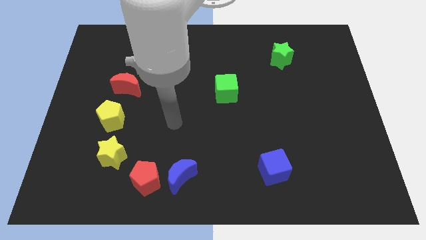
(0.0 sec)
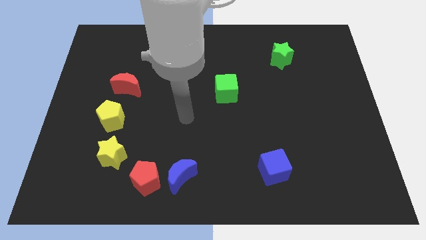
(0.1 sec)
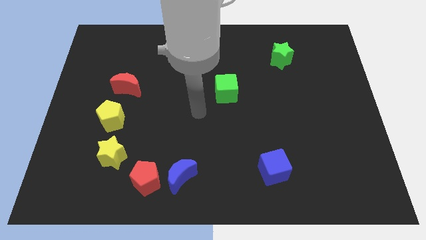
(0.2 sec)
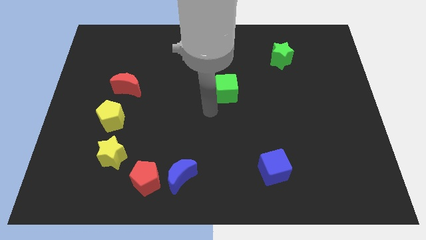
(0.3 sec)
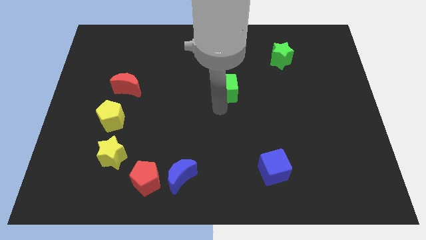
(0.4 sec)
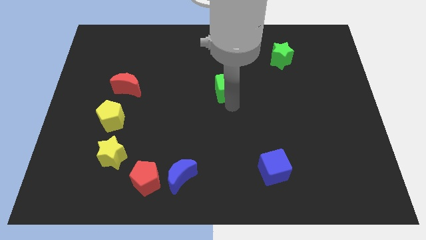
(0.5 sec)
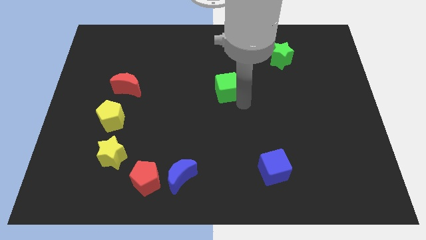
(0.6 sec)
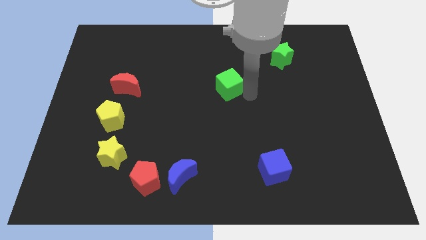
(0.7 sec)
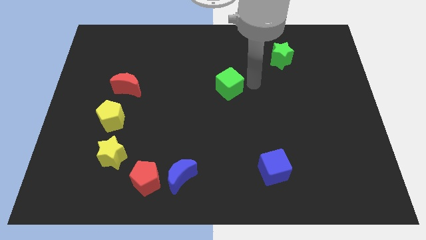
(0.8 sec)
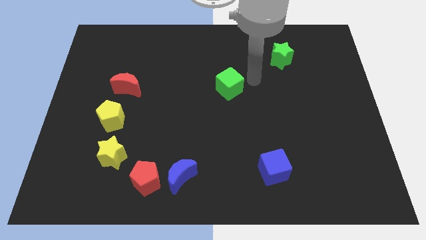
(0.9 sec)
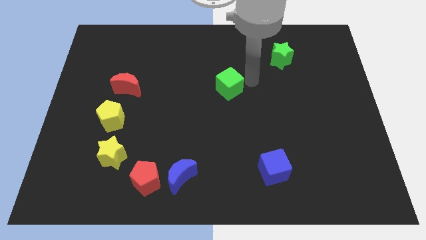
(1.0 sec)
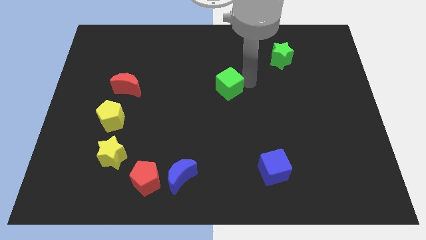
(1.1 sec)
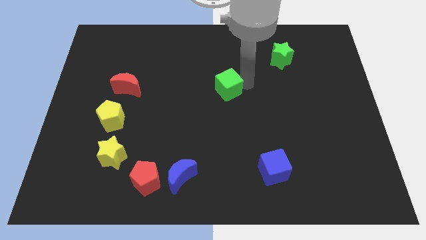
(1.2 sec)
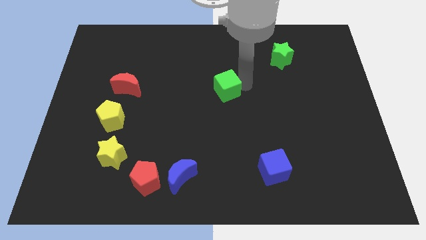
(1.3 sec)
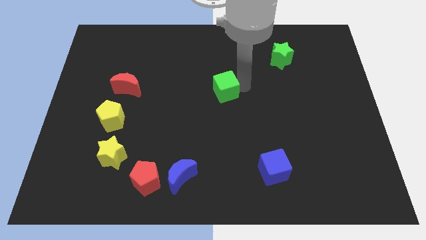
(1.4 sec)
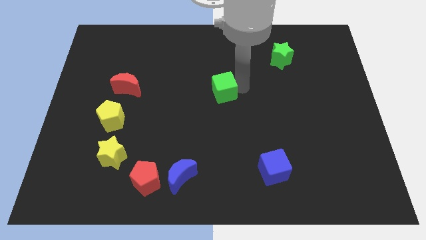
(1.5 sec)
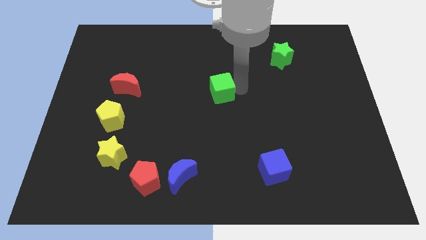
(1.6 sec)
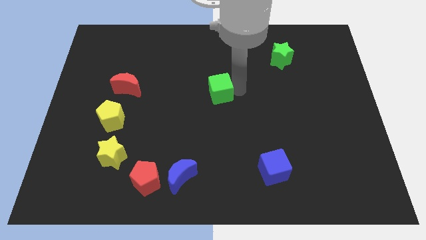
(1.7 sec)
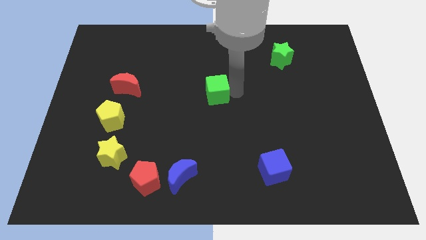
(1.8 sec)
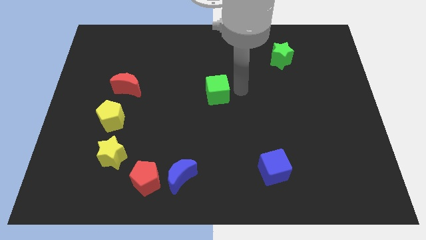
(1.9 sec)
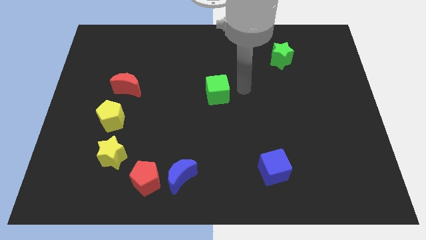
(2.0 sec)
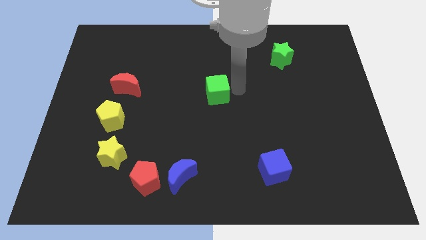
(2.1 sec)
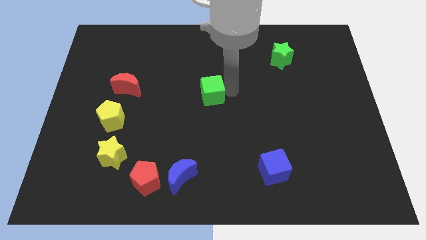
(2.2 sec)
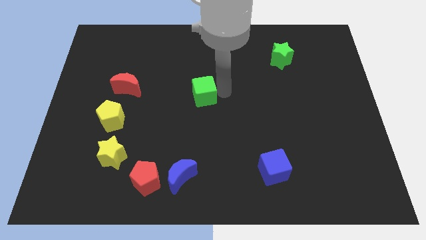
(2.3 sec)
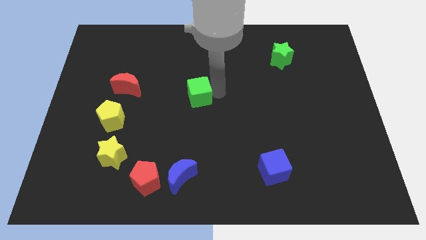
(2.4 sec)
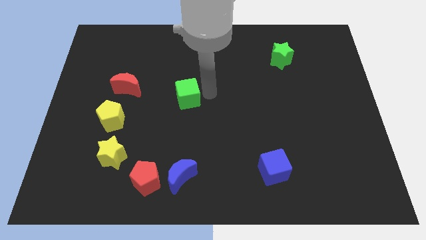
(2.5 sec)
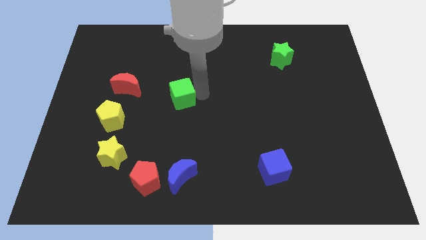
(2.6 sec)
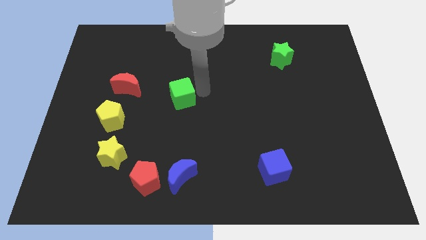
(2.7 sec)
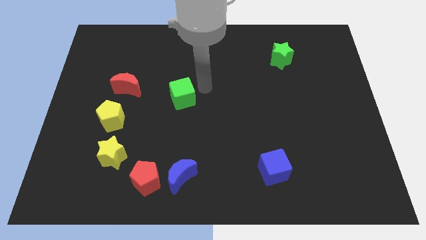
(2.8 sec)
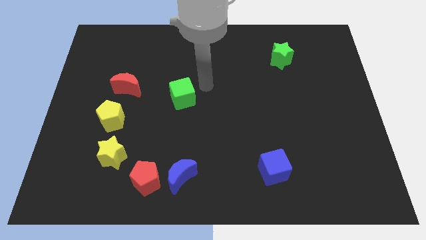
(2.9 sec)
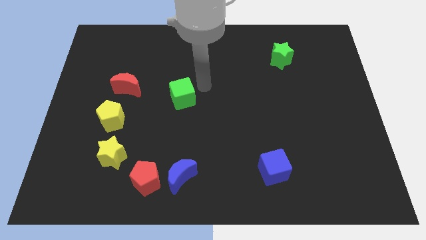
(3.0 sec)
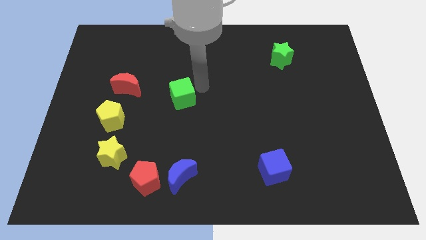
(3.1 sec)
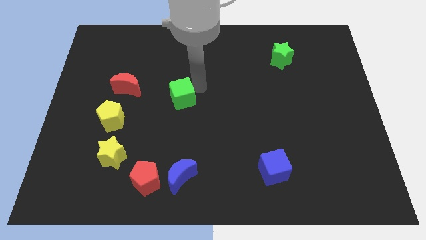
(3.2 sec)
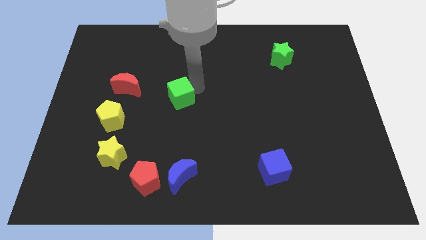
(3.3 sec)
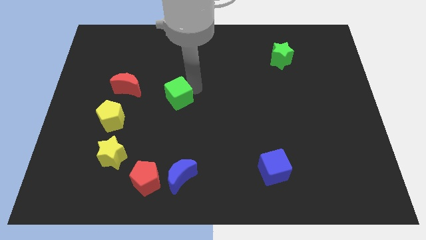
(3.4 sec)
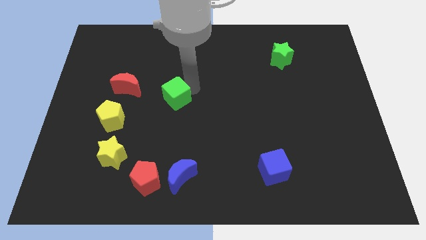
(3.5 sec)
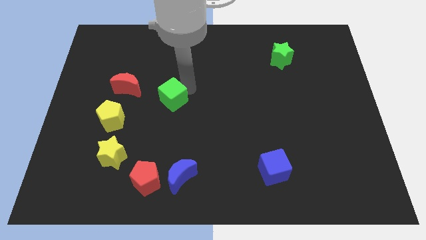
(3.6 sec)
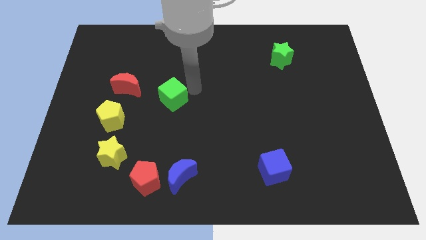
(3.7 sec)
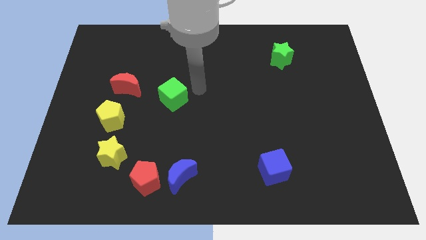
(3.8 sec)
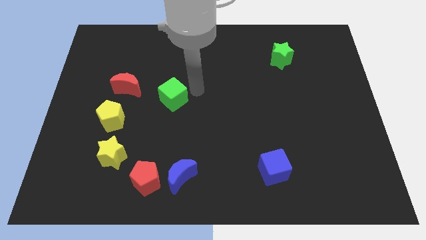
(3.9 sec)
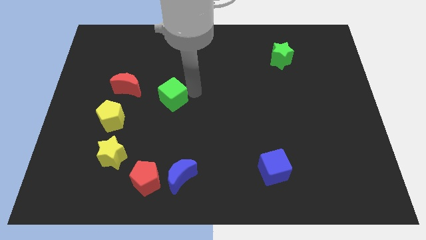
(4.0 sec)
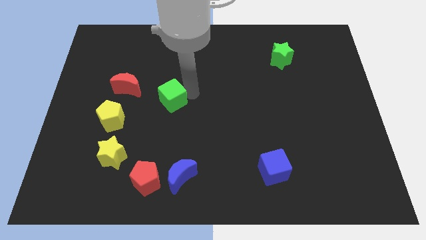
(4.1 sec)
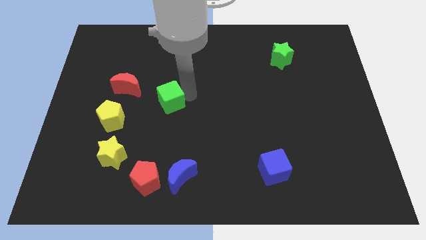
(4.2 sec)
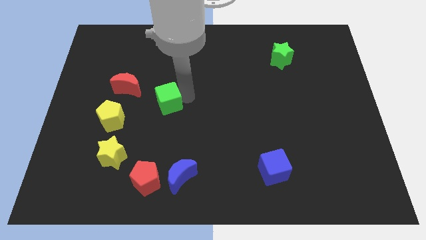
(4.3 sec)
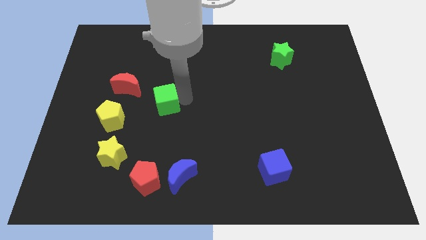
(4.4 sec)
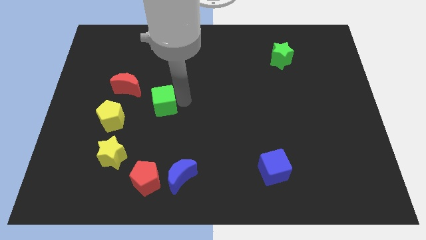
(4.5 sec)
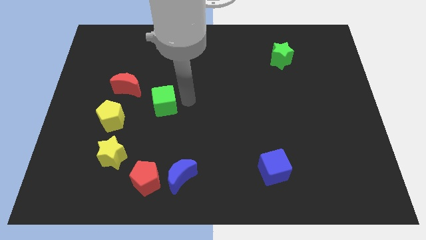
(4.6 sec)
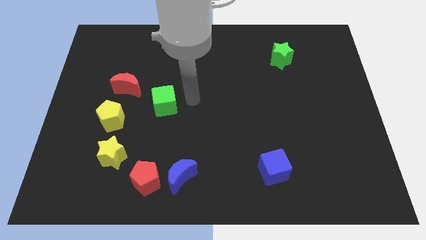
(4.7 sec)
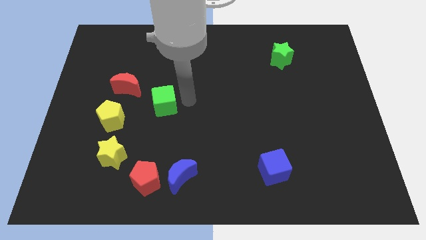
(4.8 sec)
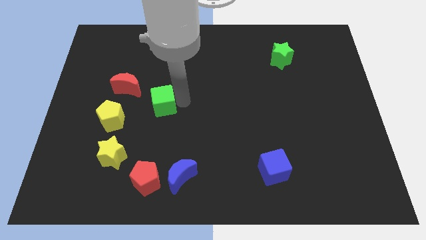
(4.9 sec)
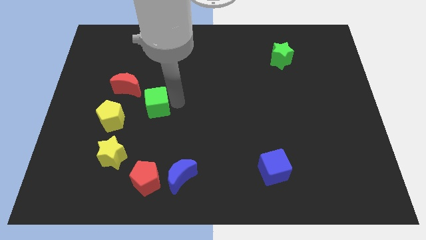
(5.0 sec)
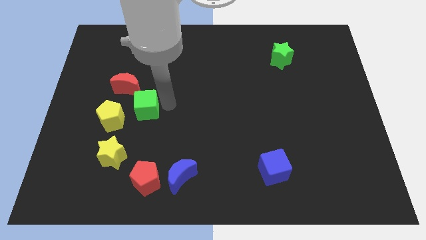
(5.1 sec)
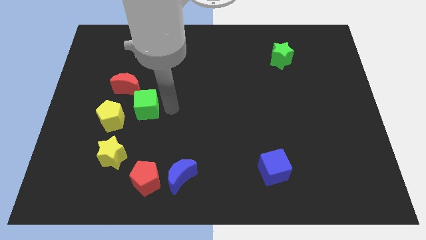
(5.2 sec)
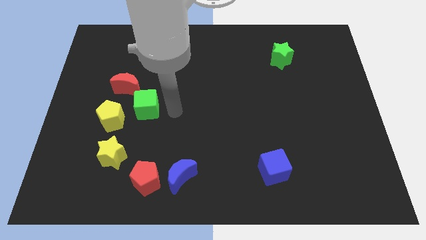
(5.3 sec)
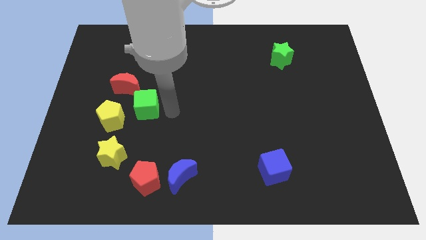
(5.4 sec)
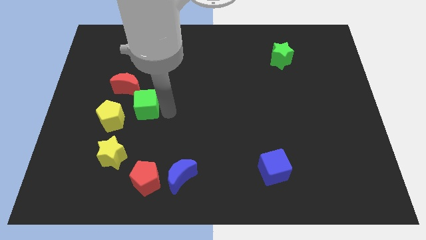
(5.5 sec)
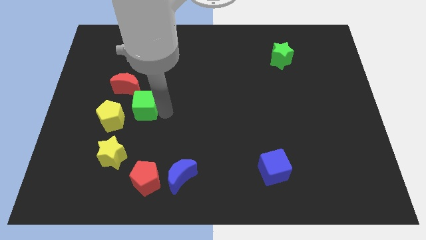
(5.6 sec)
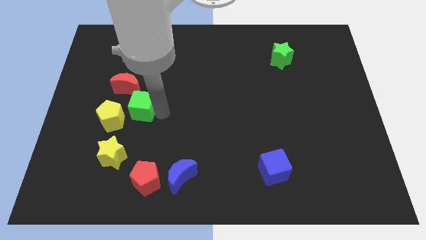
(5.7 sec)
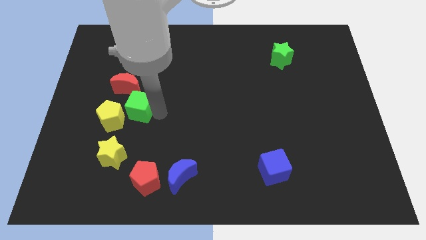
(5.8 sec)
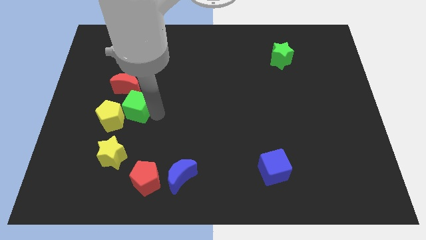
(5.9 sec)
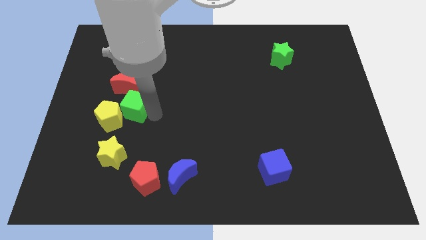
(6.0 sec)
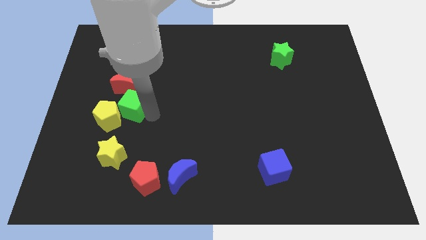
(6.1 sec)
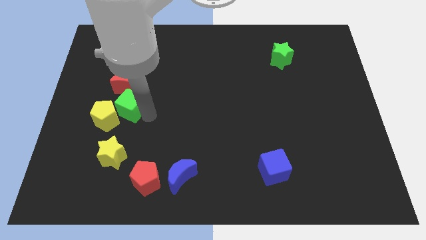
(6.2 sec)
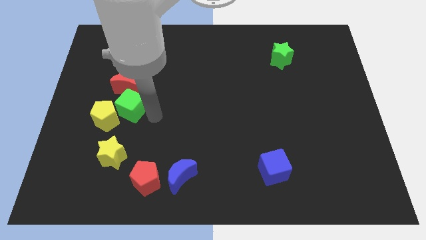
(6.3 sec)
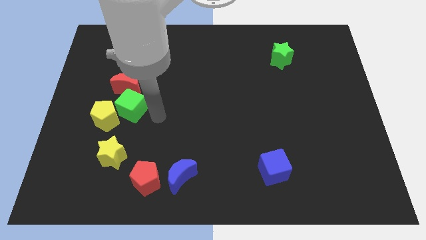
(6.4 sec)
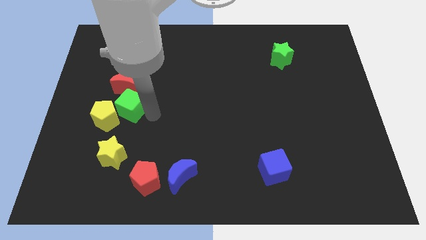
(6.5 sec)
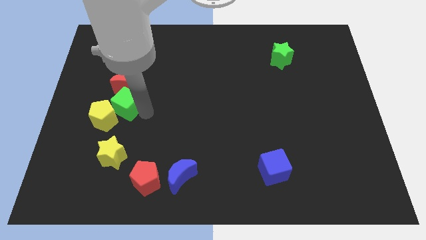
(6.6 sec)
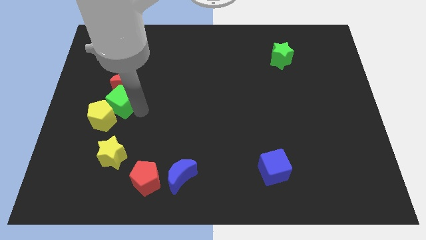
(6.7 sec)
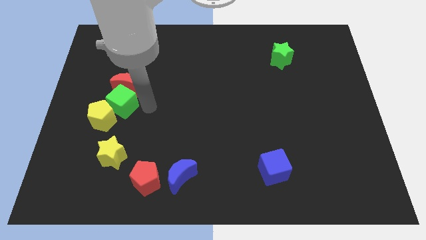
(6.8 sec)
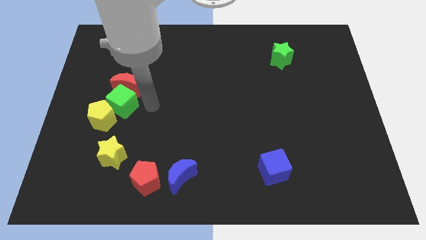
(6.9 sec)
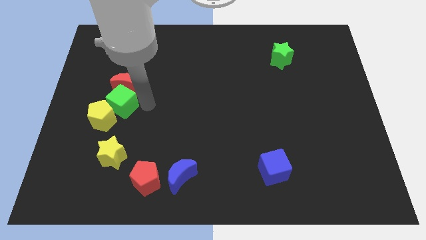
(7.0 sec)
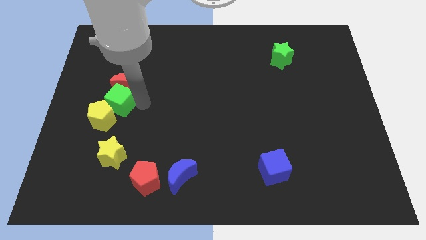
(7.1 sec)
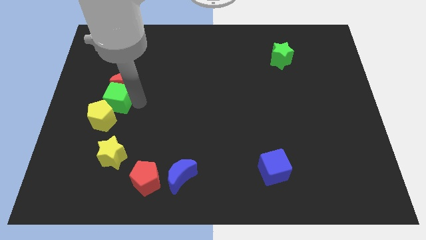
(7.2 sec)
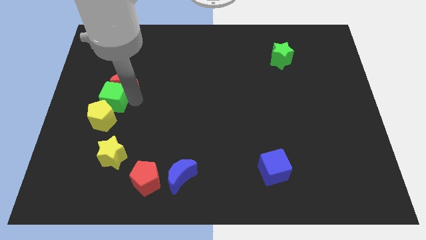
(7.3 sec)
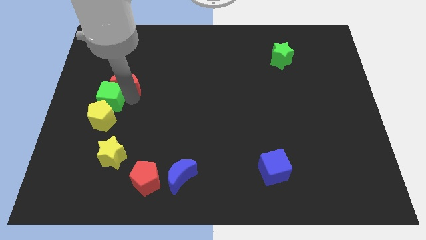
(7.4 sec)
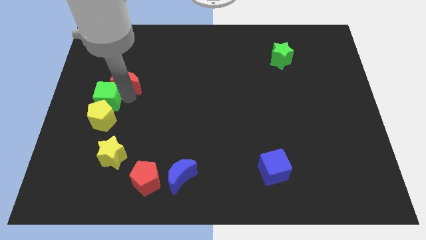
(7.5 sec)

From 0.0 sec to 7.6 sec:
move the green cube to the left side
